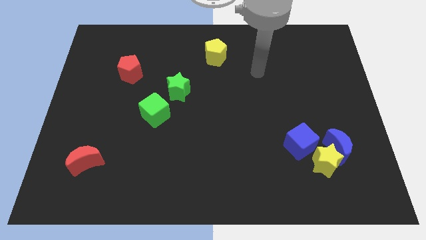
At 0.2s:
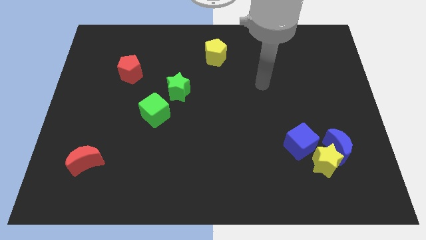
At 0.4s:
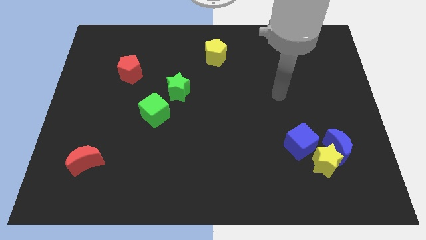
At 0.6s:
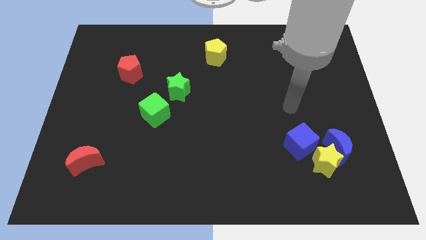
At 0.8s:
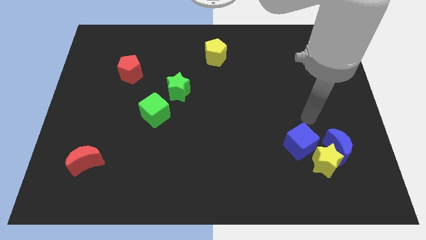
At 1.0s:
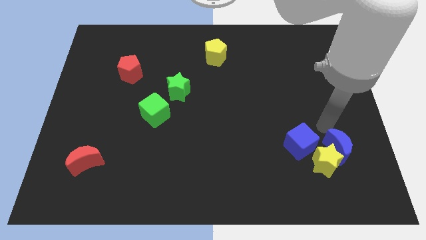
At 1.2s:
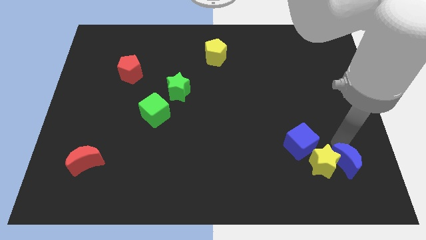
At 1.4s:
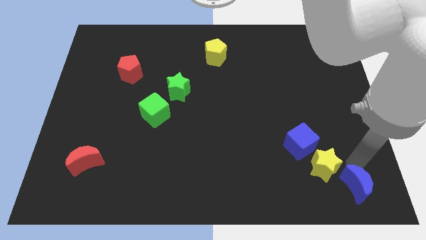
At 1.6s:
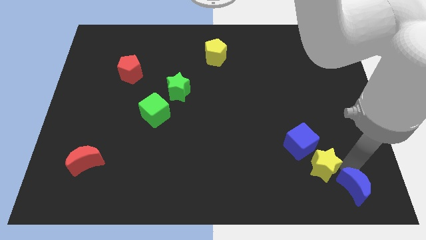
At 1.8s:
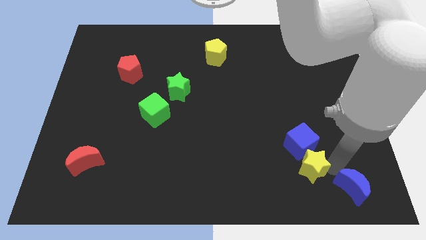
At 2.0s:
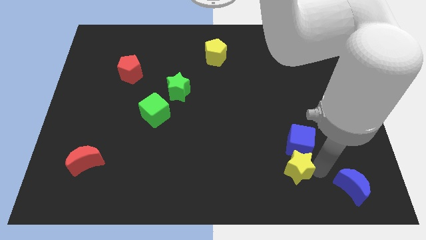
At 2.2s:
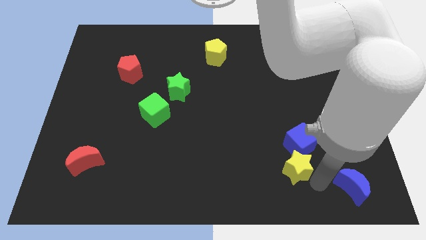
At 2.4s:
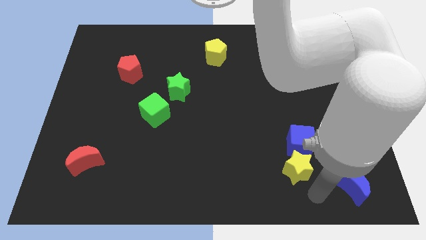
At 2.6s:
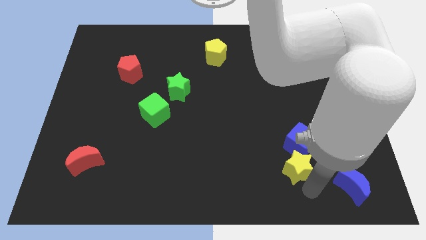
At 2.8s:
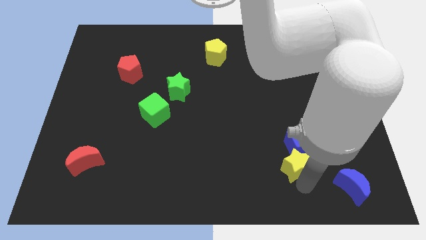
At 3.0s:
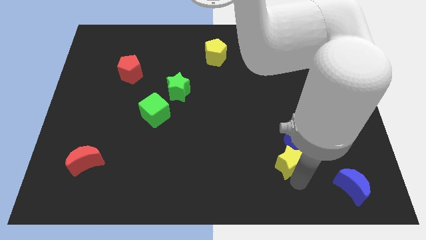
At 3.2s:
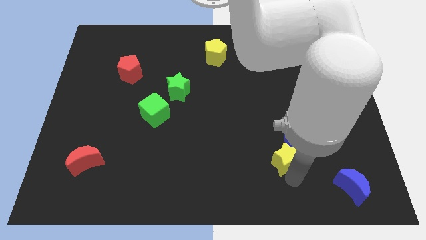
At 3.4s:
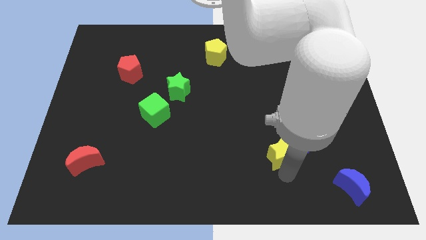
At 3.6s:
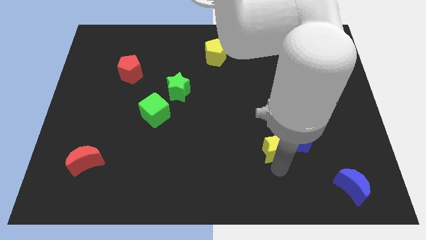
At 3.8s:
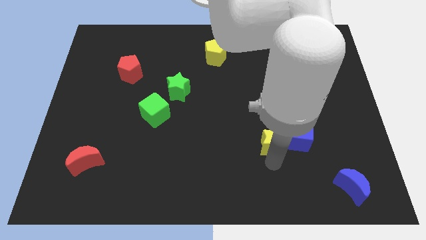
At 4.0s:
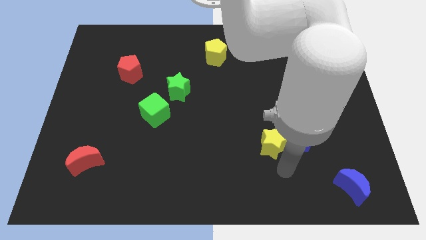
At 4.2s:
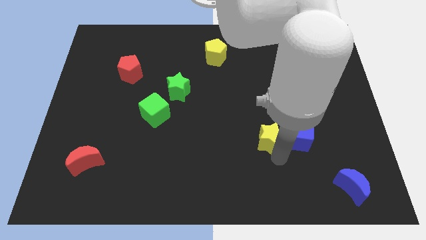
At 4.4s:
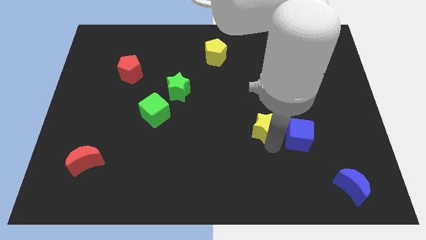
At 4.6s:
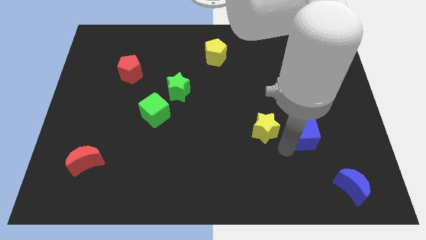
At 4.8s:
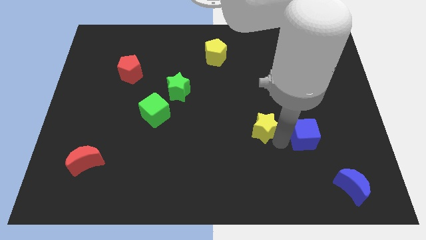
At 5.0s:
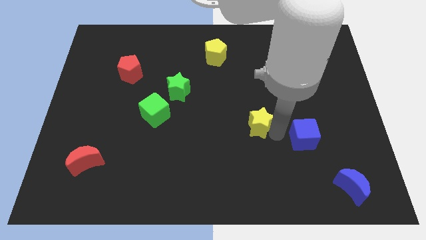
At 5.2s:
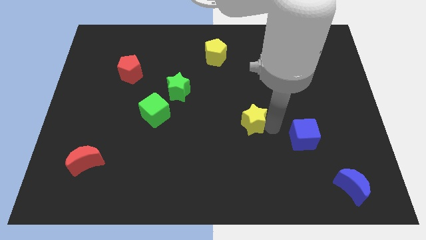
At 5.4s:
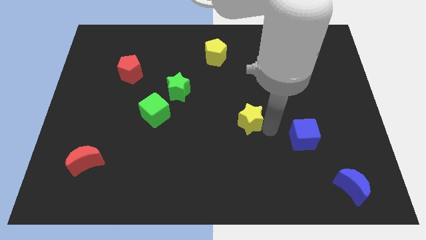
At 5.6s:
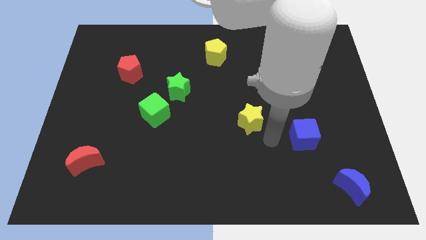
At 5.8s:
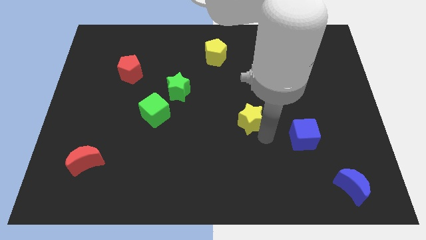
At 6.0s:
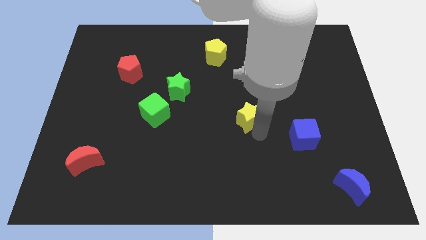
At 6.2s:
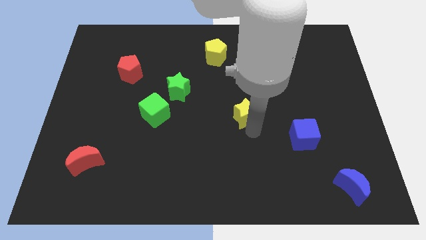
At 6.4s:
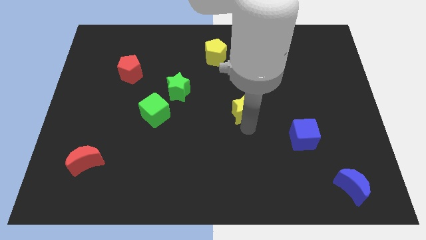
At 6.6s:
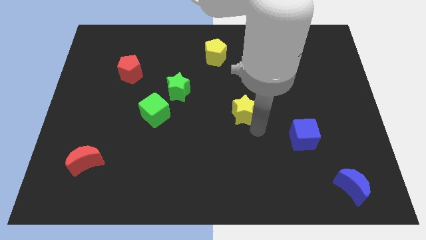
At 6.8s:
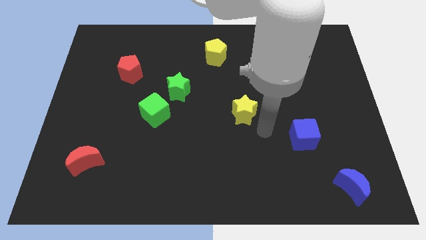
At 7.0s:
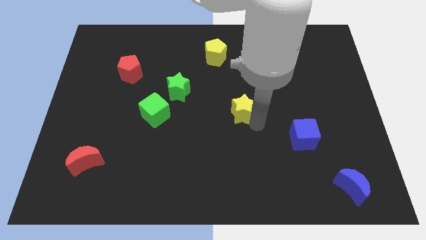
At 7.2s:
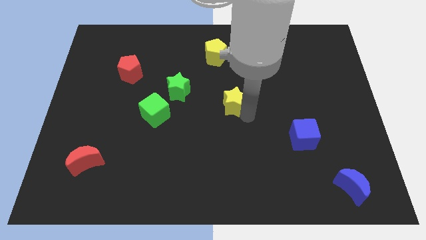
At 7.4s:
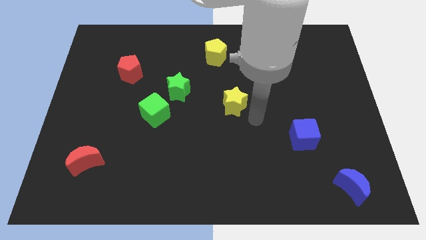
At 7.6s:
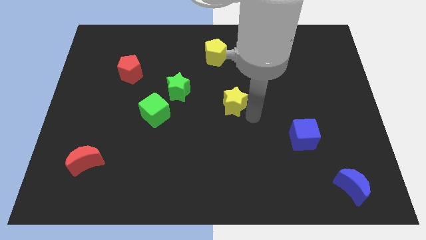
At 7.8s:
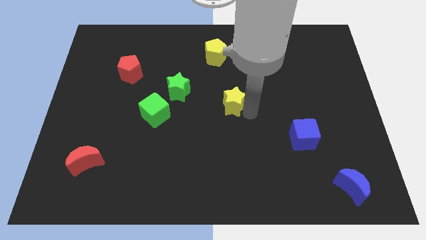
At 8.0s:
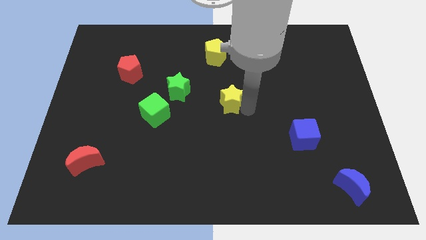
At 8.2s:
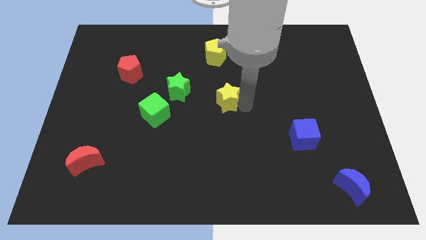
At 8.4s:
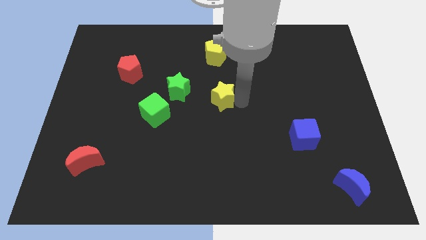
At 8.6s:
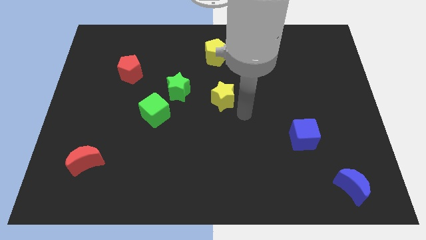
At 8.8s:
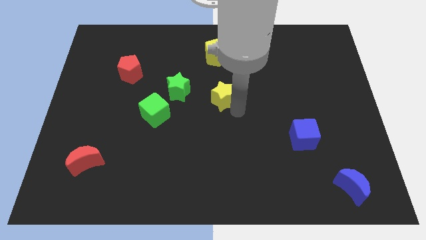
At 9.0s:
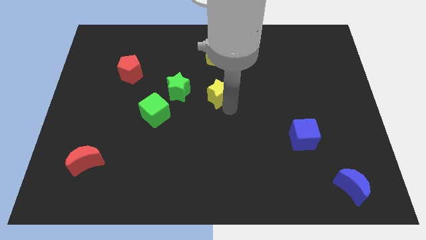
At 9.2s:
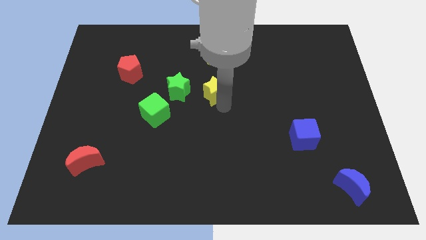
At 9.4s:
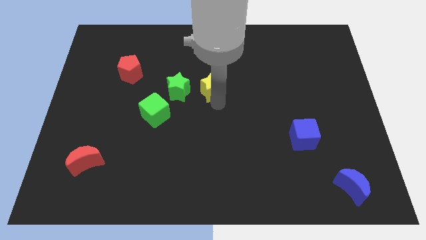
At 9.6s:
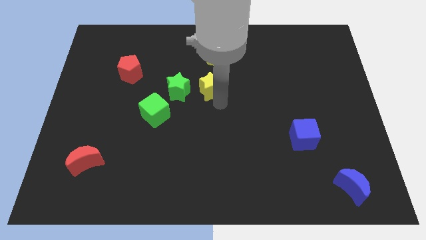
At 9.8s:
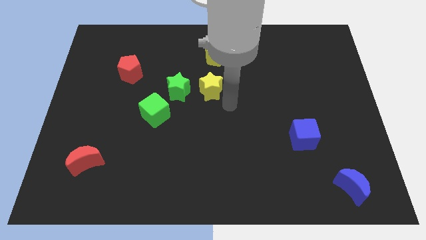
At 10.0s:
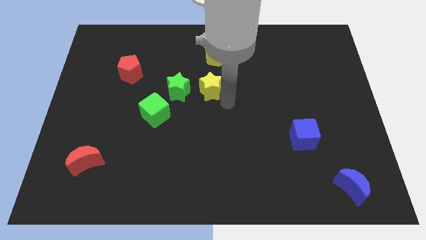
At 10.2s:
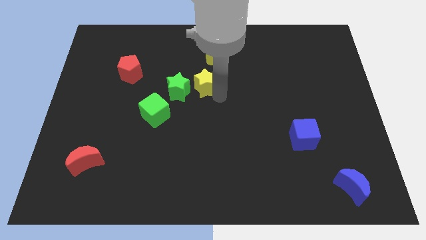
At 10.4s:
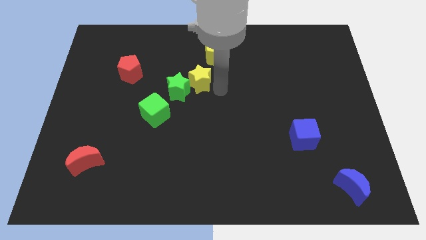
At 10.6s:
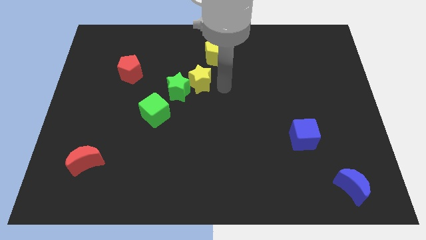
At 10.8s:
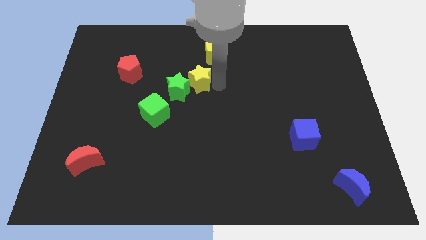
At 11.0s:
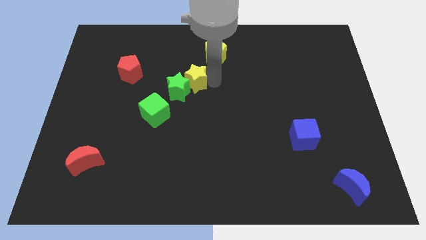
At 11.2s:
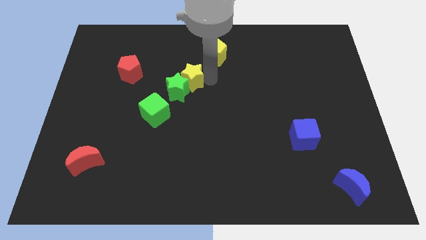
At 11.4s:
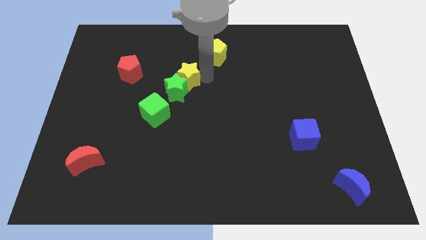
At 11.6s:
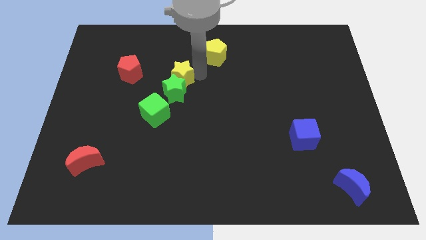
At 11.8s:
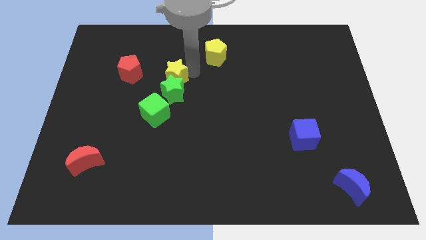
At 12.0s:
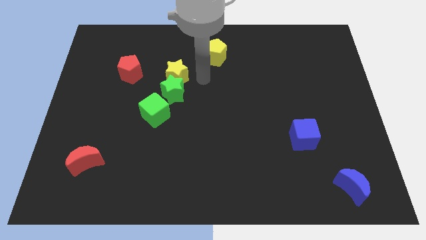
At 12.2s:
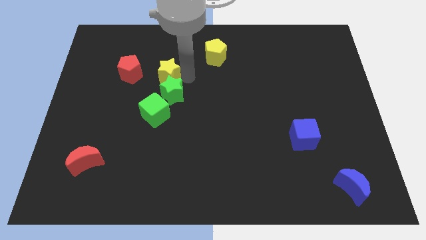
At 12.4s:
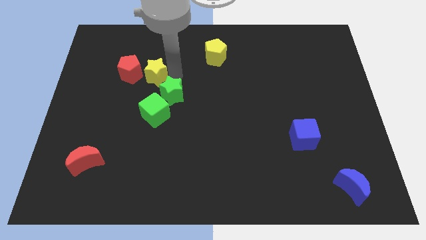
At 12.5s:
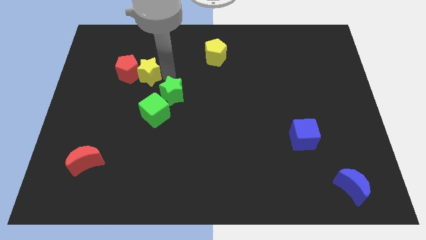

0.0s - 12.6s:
put the yellow star towards the red pentagon

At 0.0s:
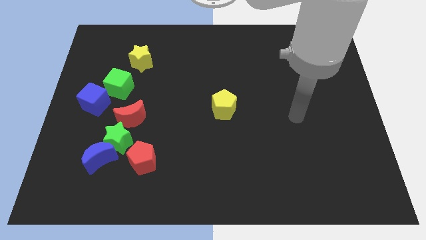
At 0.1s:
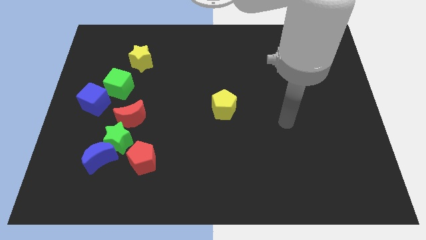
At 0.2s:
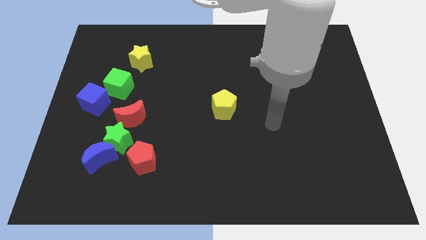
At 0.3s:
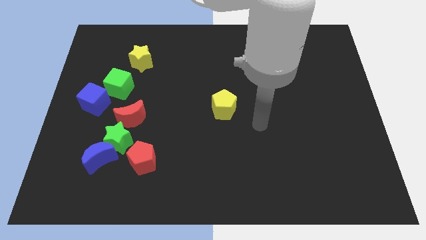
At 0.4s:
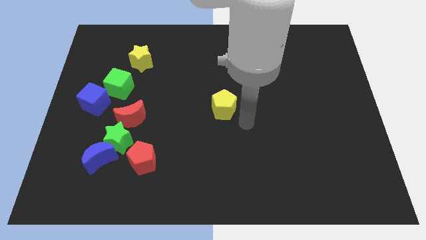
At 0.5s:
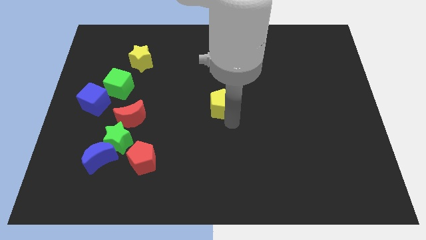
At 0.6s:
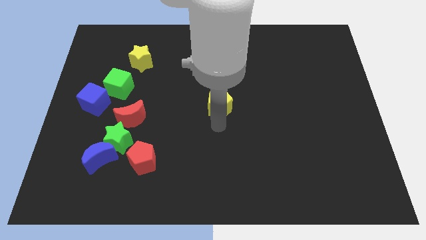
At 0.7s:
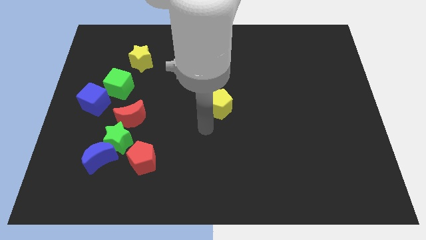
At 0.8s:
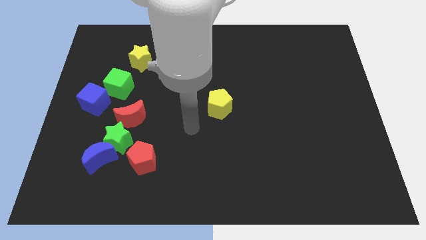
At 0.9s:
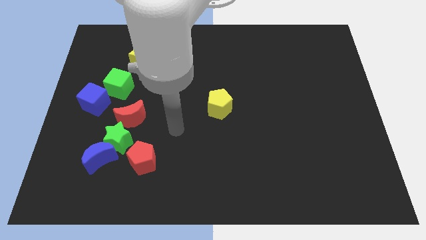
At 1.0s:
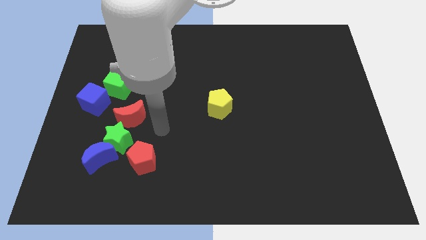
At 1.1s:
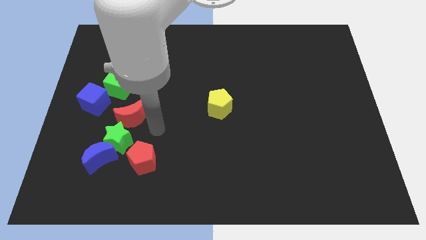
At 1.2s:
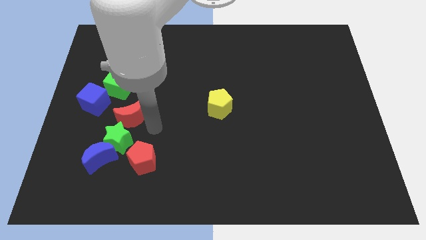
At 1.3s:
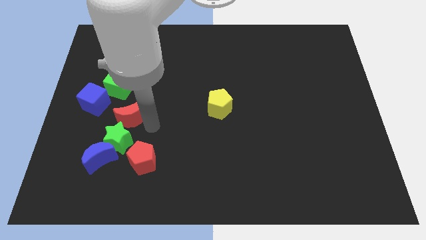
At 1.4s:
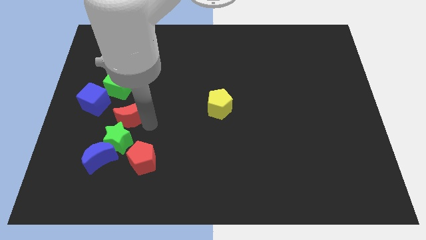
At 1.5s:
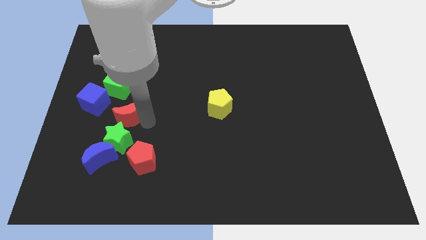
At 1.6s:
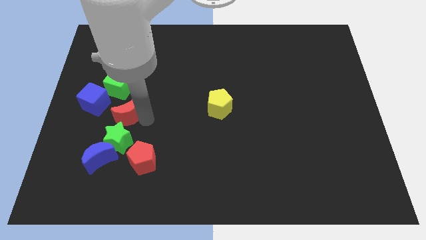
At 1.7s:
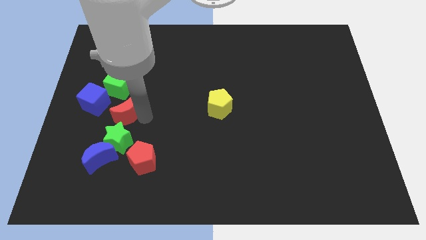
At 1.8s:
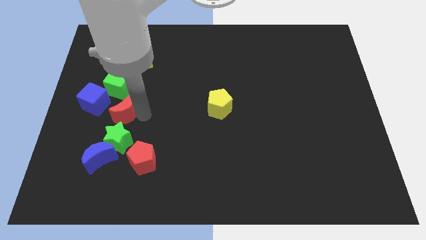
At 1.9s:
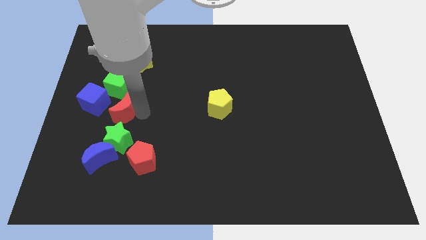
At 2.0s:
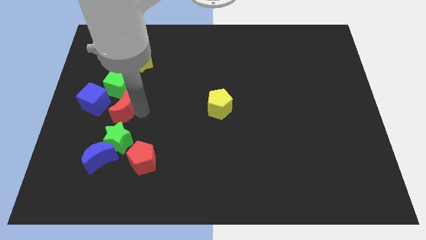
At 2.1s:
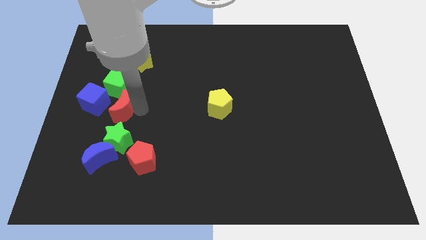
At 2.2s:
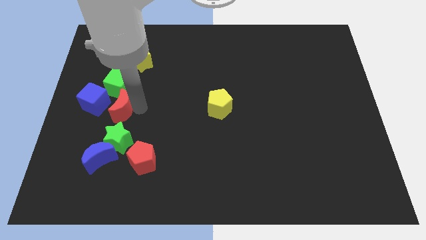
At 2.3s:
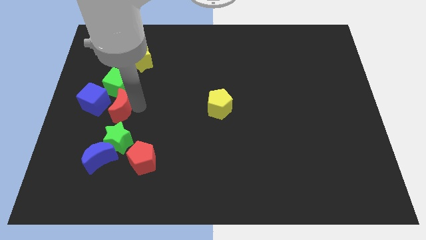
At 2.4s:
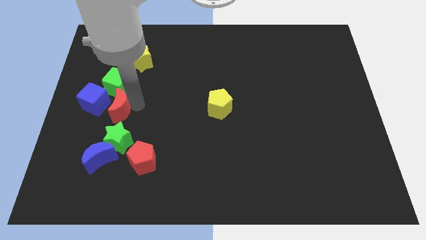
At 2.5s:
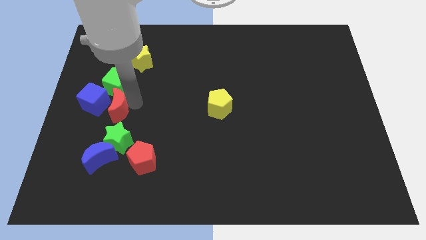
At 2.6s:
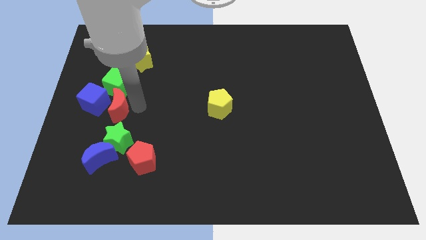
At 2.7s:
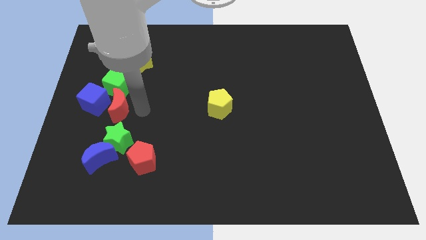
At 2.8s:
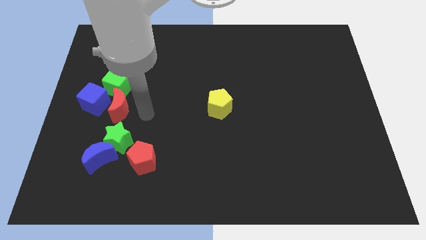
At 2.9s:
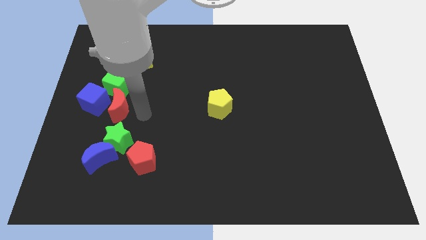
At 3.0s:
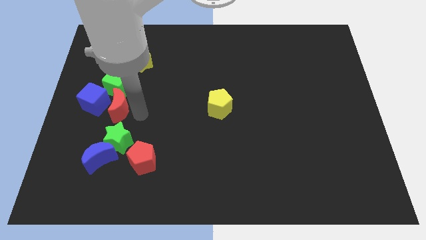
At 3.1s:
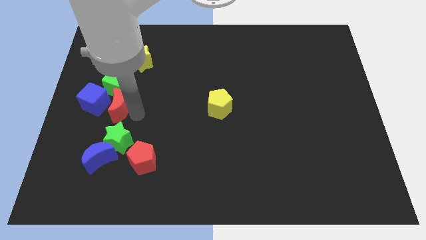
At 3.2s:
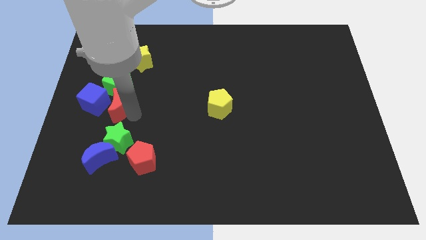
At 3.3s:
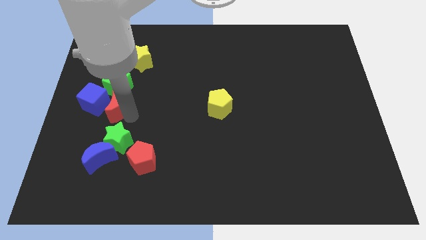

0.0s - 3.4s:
slide the red moon next to the blue cube
